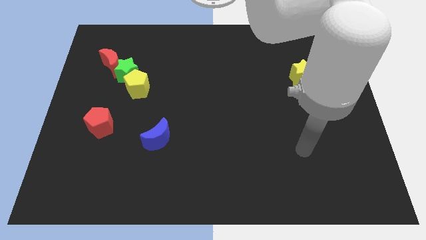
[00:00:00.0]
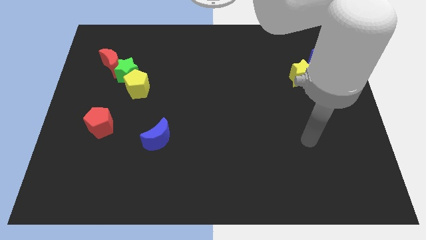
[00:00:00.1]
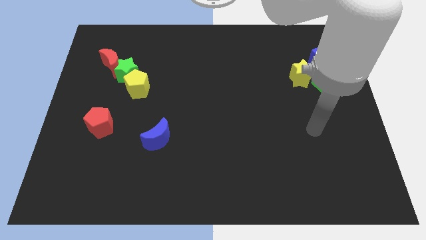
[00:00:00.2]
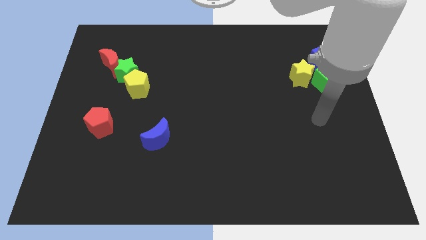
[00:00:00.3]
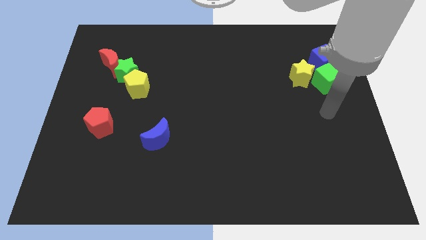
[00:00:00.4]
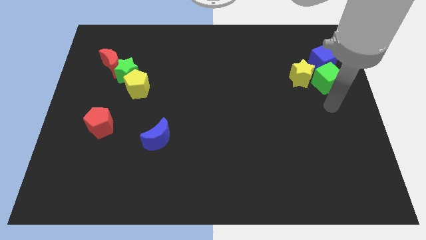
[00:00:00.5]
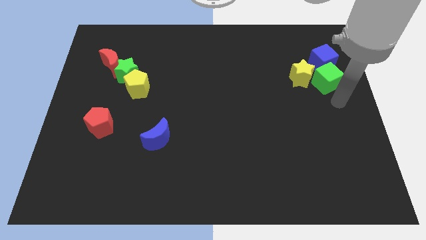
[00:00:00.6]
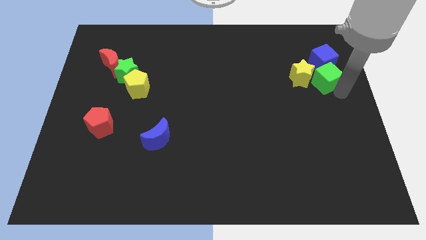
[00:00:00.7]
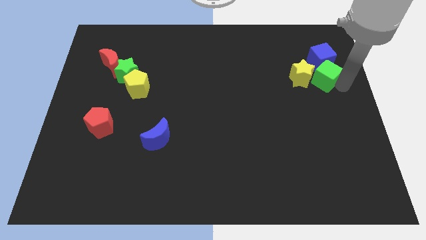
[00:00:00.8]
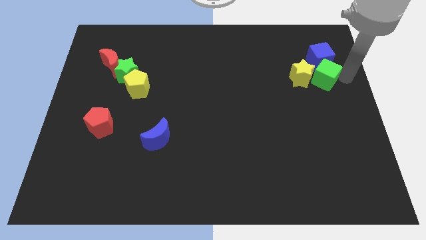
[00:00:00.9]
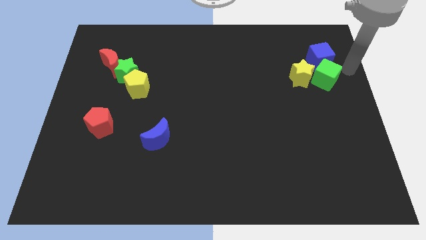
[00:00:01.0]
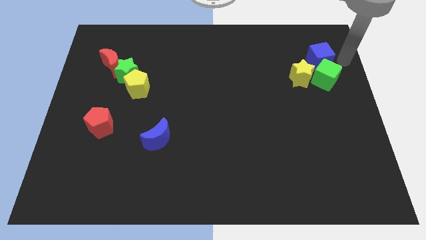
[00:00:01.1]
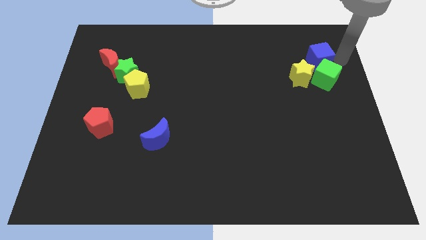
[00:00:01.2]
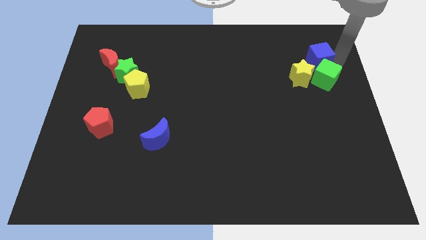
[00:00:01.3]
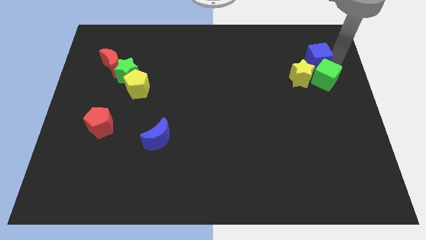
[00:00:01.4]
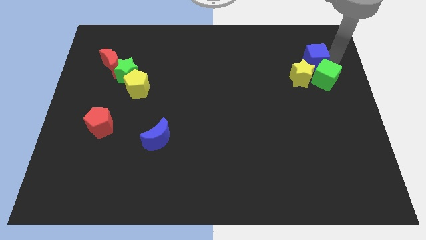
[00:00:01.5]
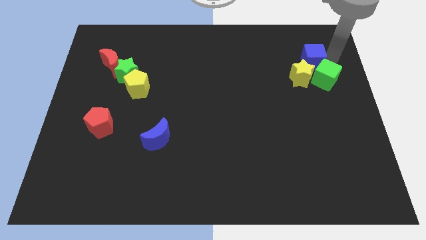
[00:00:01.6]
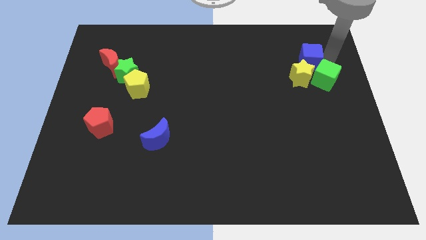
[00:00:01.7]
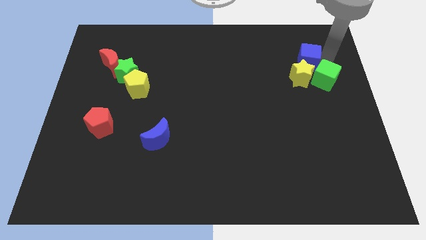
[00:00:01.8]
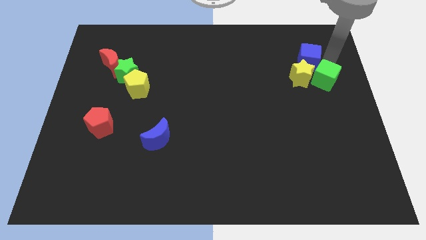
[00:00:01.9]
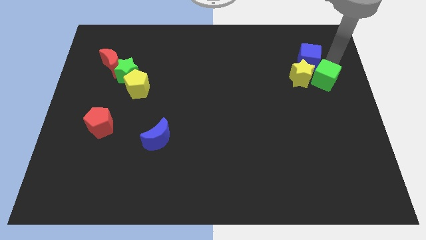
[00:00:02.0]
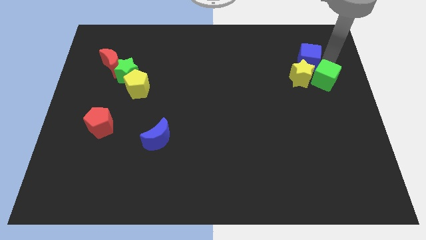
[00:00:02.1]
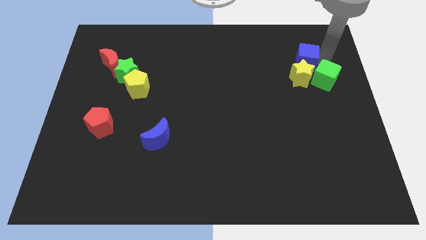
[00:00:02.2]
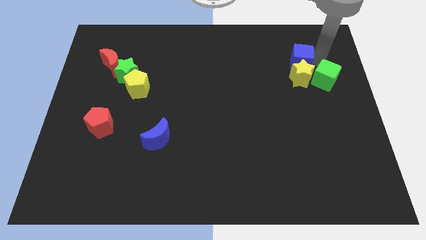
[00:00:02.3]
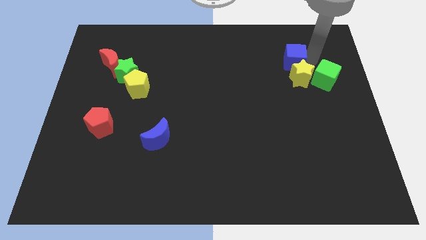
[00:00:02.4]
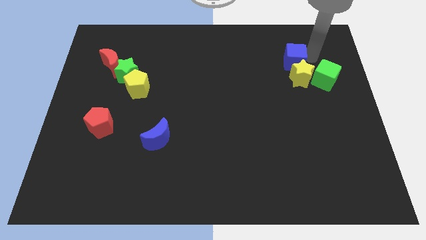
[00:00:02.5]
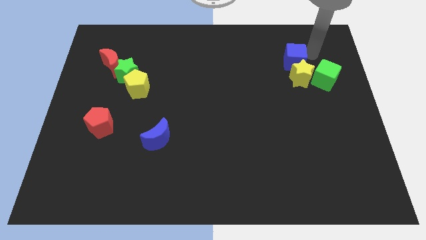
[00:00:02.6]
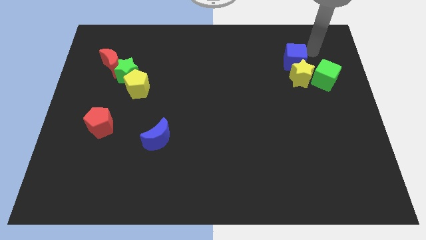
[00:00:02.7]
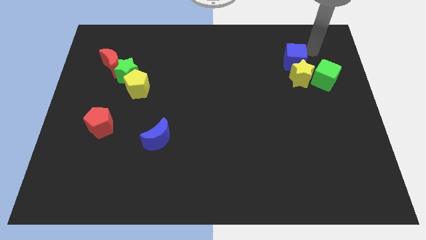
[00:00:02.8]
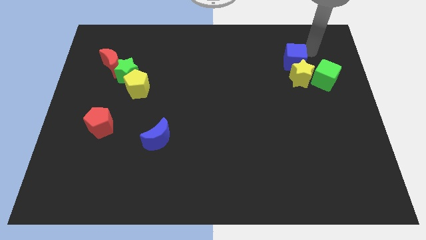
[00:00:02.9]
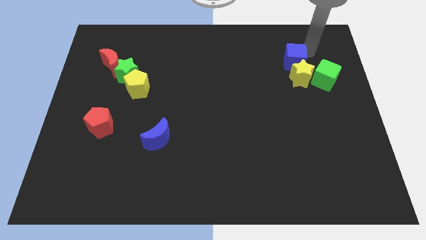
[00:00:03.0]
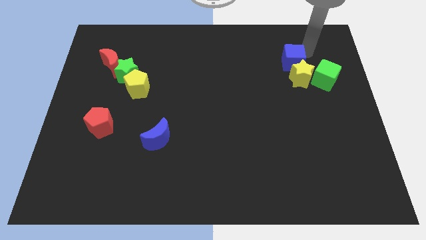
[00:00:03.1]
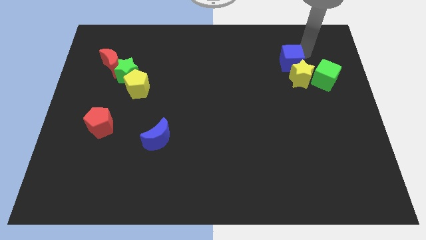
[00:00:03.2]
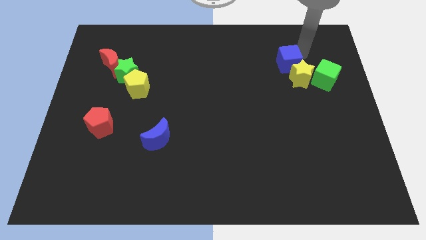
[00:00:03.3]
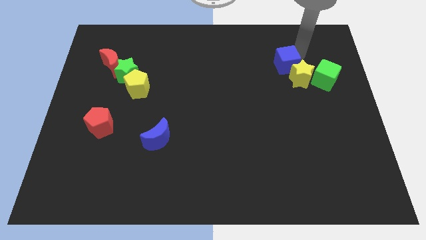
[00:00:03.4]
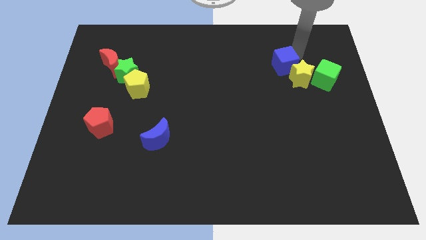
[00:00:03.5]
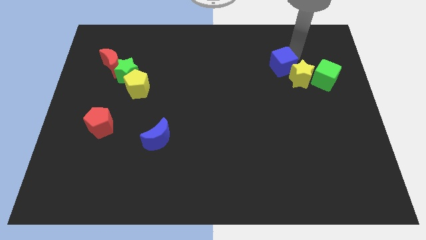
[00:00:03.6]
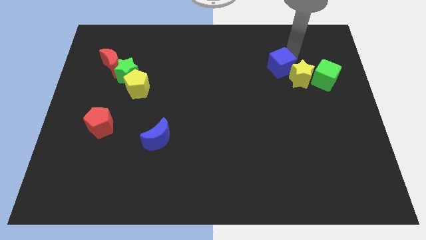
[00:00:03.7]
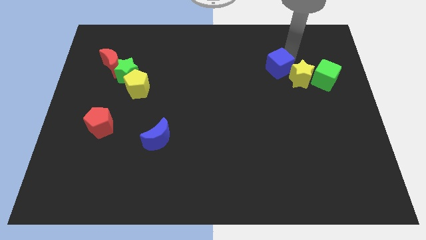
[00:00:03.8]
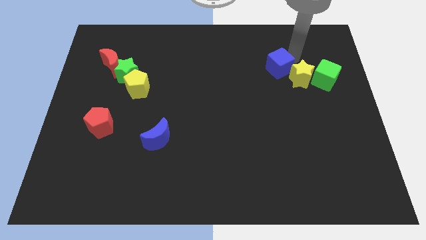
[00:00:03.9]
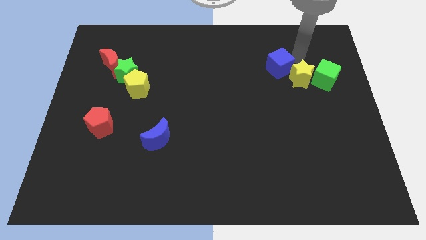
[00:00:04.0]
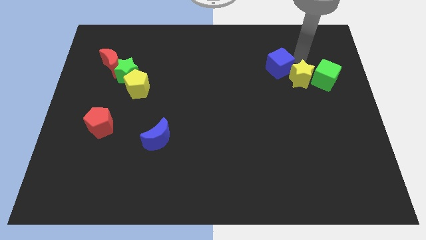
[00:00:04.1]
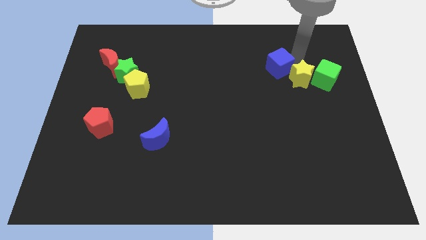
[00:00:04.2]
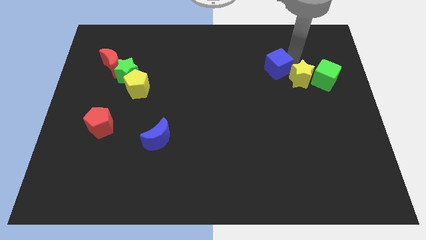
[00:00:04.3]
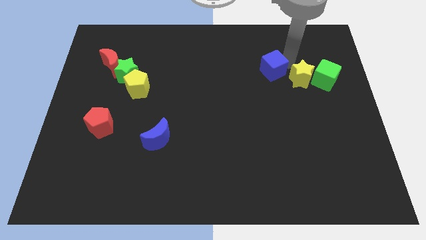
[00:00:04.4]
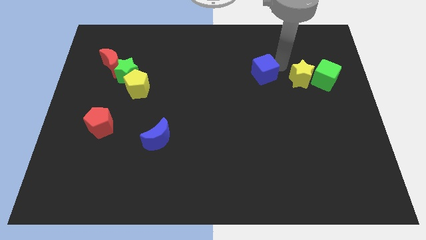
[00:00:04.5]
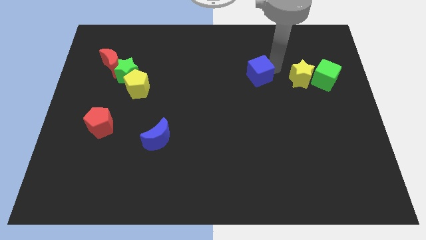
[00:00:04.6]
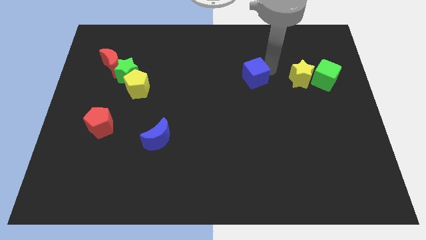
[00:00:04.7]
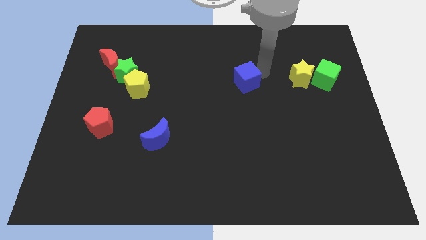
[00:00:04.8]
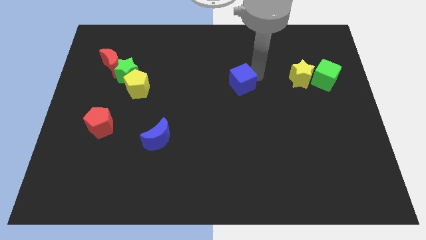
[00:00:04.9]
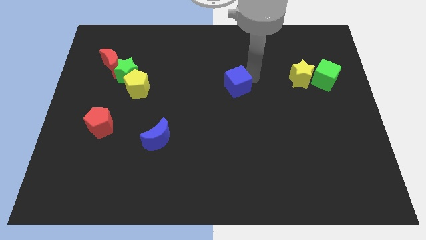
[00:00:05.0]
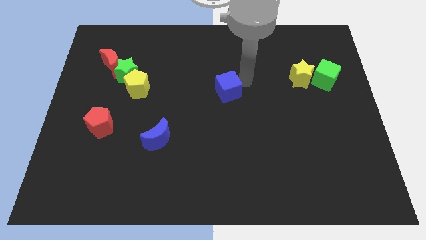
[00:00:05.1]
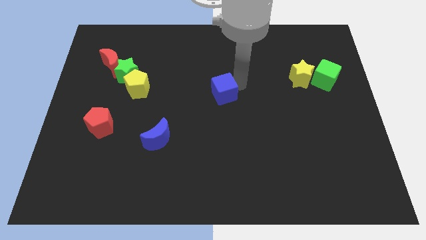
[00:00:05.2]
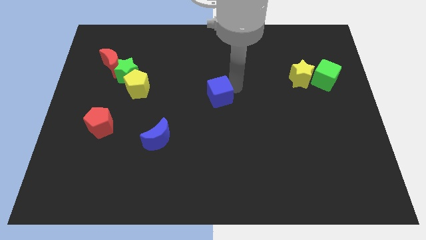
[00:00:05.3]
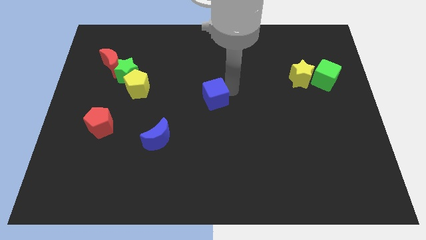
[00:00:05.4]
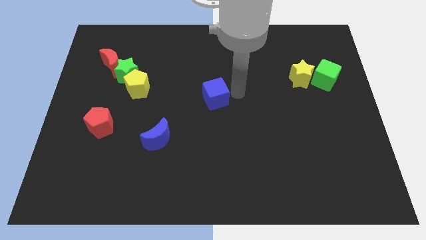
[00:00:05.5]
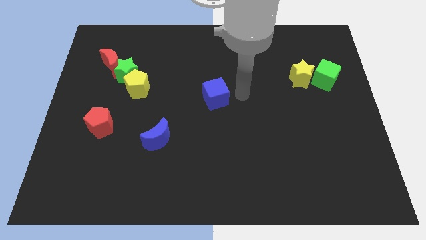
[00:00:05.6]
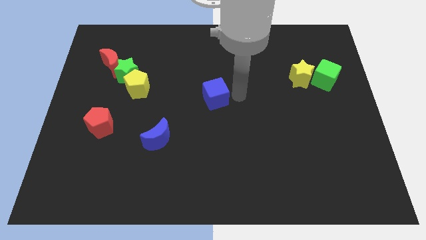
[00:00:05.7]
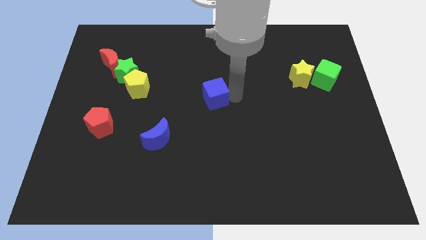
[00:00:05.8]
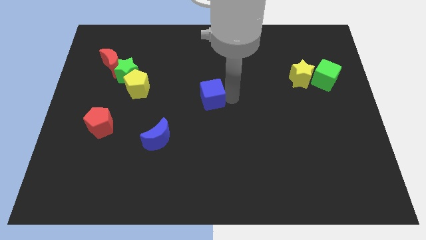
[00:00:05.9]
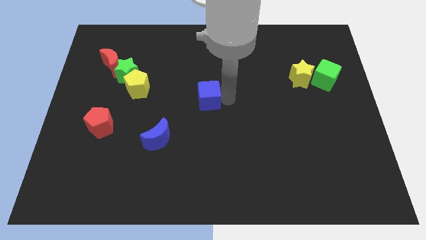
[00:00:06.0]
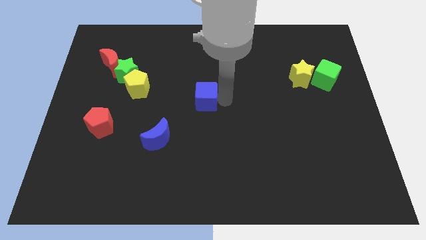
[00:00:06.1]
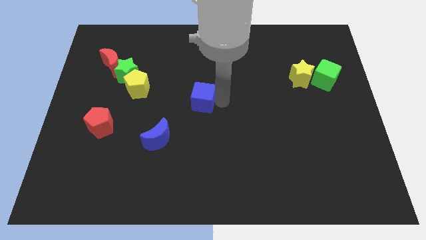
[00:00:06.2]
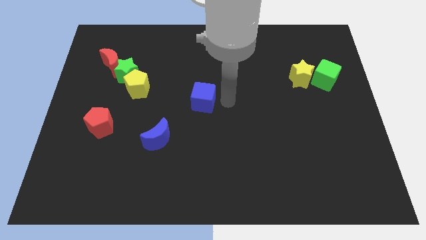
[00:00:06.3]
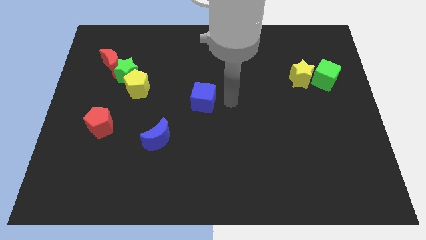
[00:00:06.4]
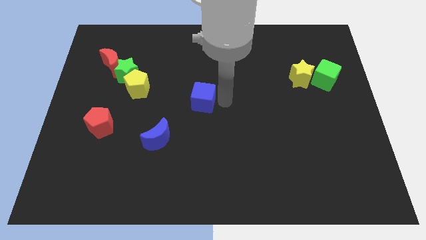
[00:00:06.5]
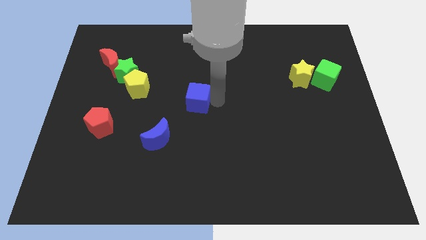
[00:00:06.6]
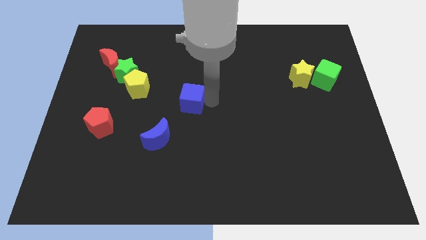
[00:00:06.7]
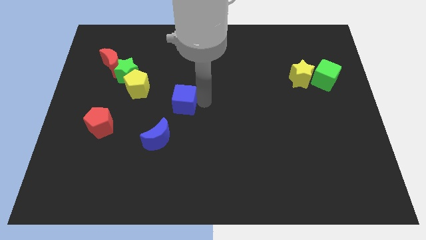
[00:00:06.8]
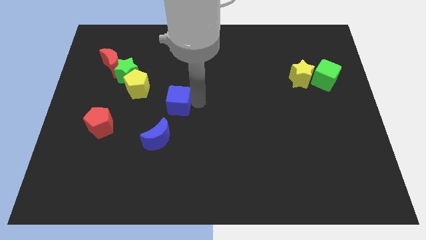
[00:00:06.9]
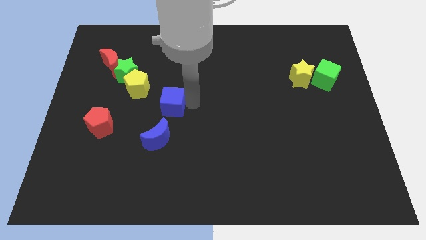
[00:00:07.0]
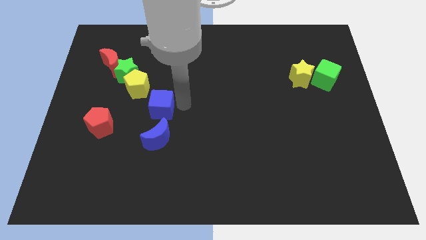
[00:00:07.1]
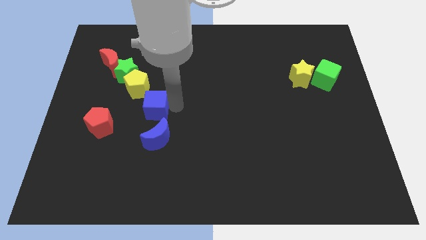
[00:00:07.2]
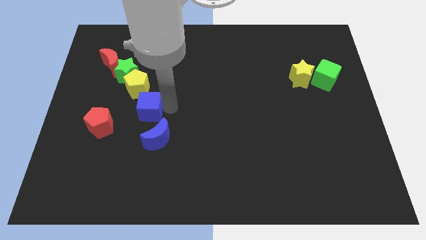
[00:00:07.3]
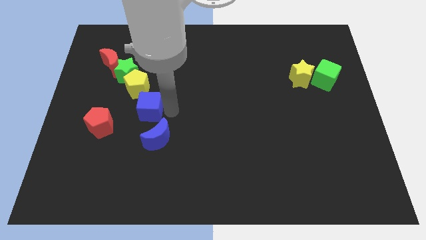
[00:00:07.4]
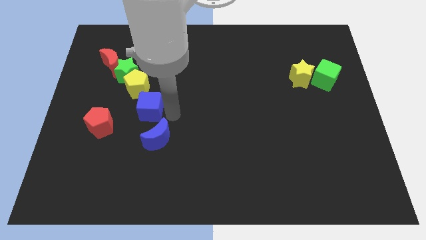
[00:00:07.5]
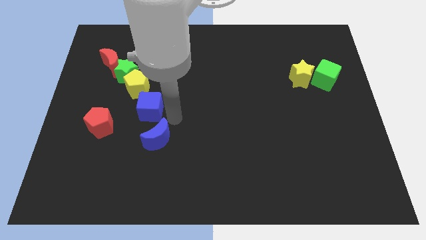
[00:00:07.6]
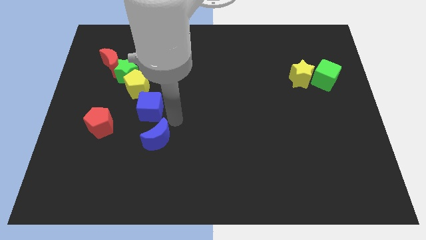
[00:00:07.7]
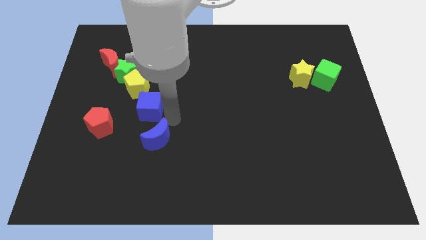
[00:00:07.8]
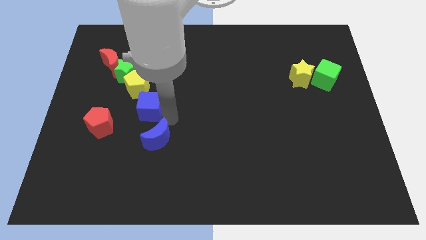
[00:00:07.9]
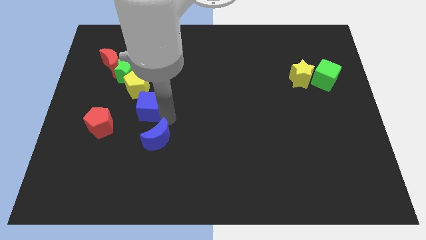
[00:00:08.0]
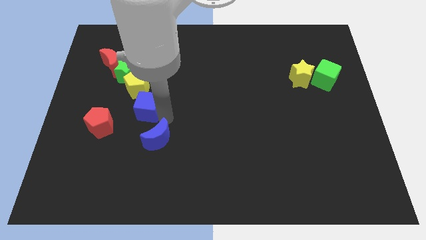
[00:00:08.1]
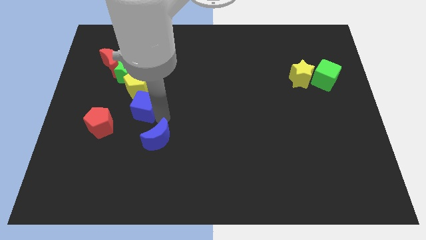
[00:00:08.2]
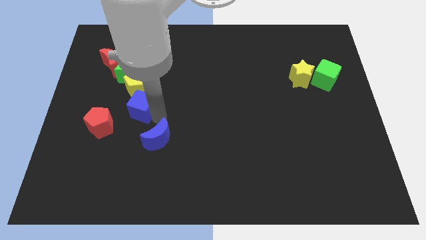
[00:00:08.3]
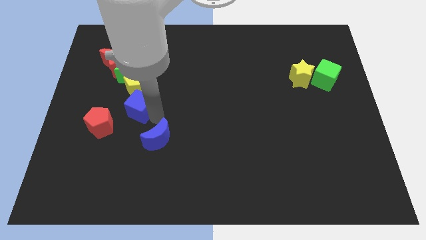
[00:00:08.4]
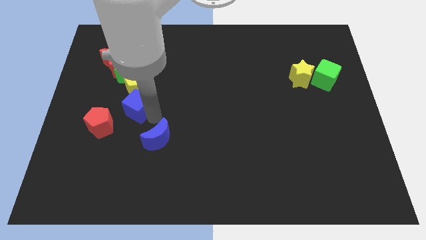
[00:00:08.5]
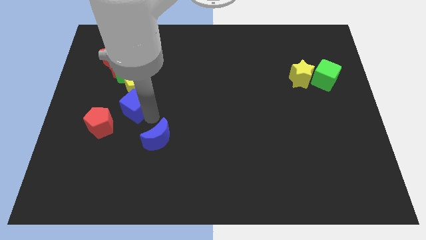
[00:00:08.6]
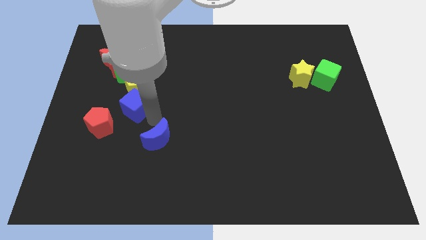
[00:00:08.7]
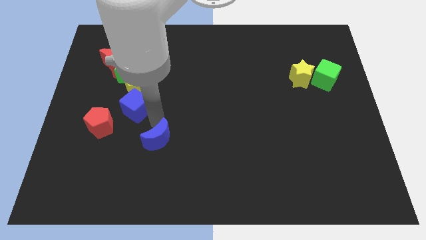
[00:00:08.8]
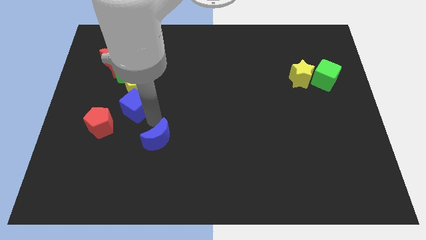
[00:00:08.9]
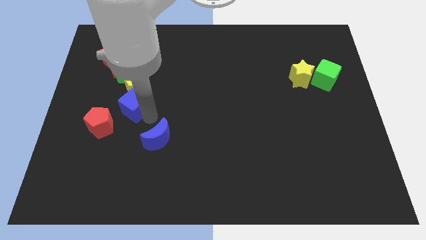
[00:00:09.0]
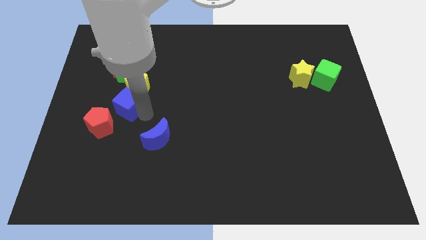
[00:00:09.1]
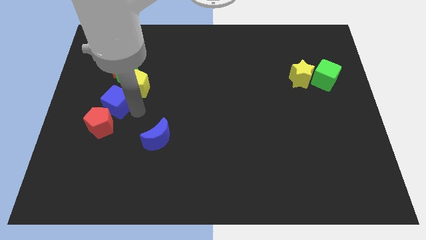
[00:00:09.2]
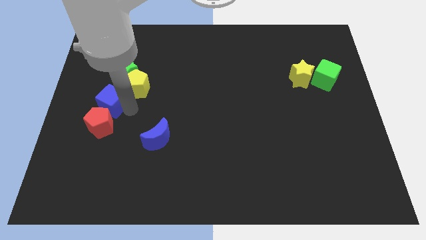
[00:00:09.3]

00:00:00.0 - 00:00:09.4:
put the blue cube to the bottom left side of the green star
